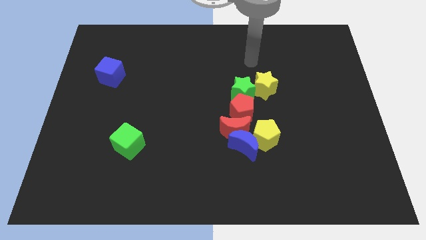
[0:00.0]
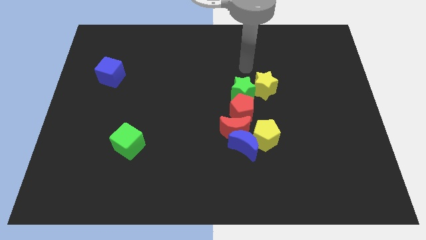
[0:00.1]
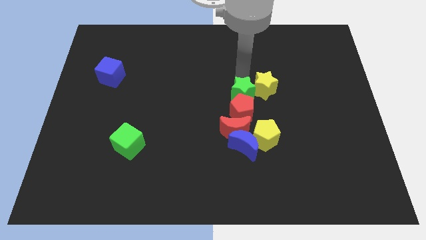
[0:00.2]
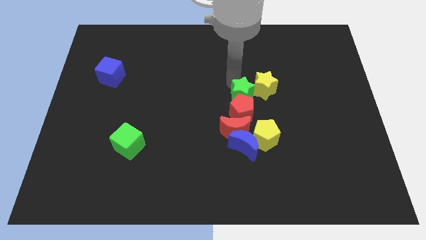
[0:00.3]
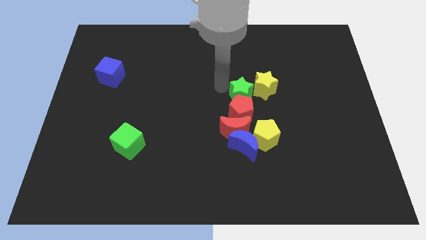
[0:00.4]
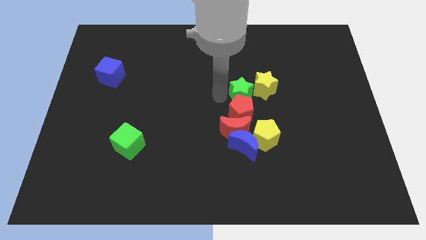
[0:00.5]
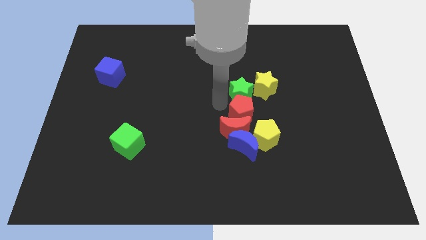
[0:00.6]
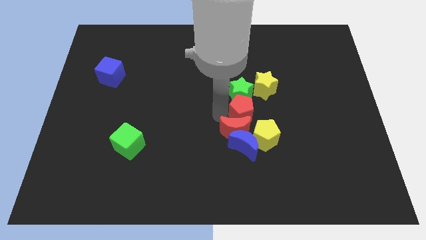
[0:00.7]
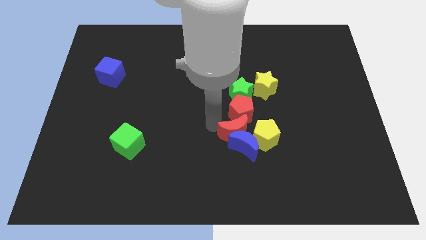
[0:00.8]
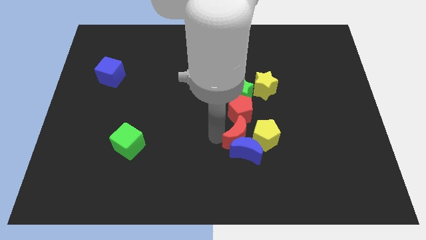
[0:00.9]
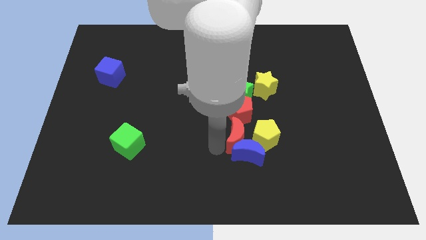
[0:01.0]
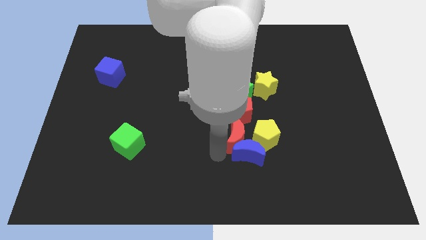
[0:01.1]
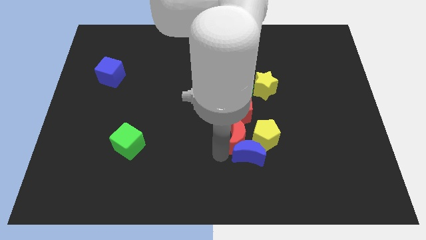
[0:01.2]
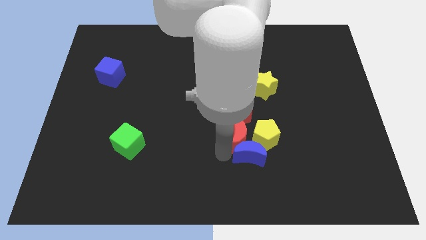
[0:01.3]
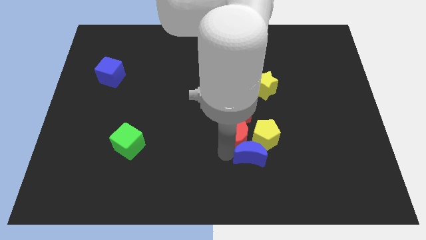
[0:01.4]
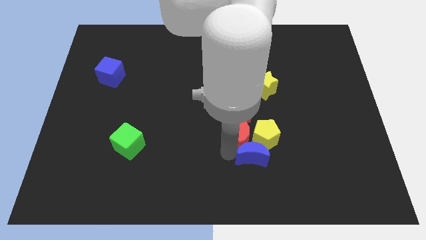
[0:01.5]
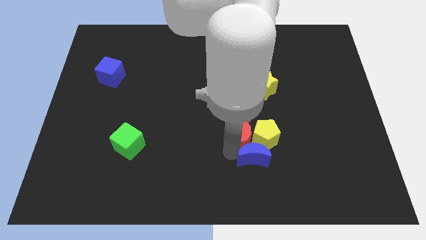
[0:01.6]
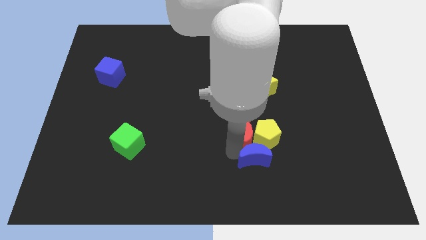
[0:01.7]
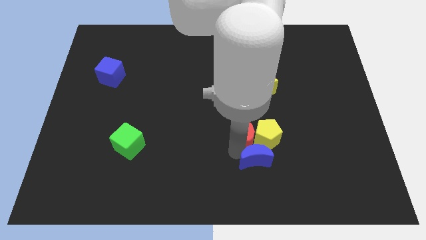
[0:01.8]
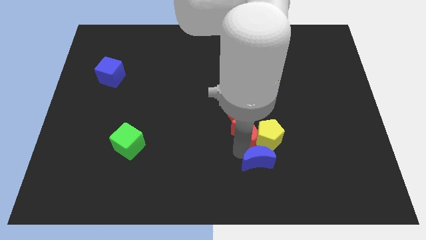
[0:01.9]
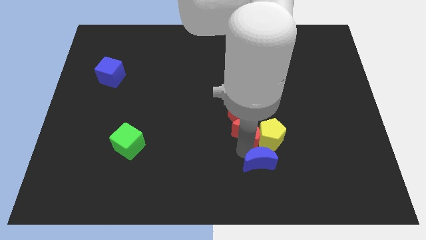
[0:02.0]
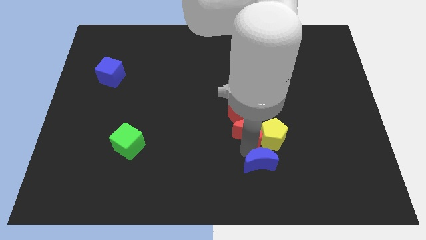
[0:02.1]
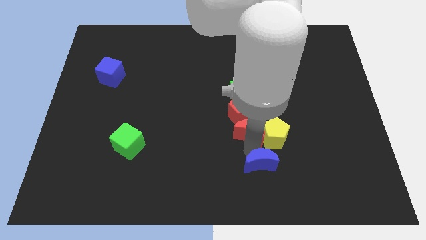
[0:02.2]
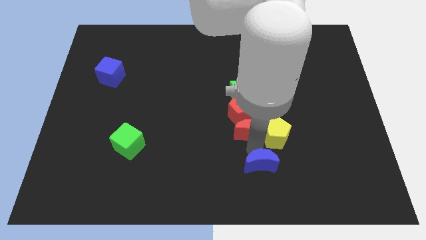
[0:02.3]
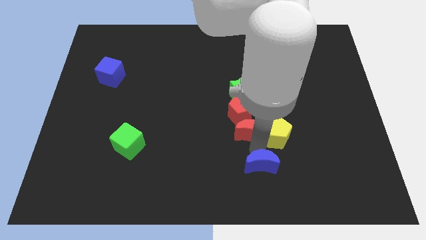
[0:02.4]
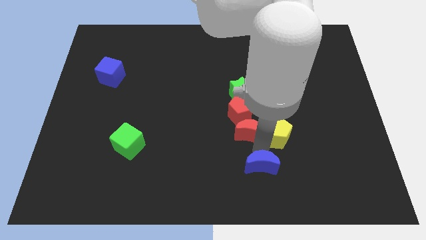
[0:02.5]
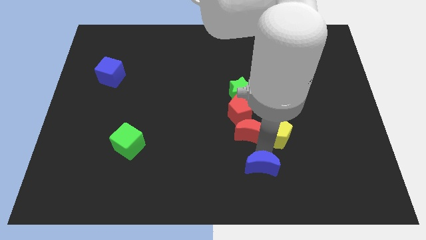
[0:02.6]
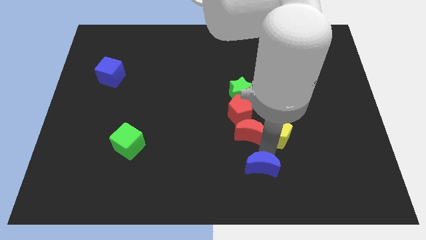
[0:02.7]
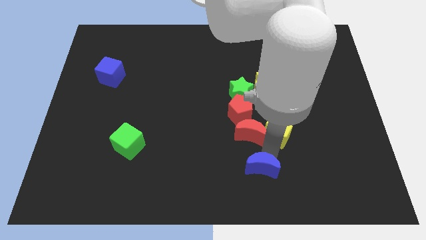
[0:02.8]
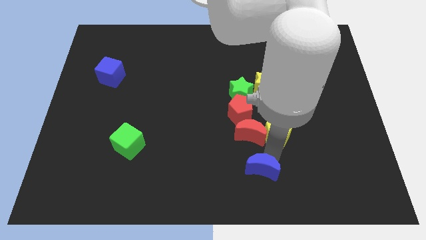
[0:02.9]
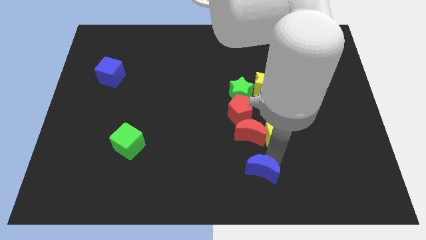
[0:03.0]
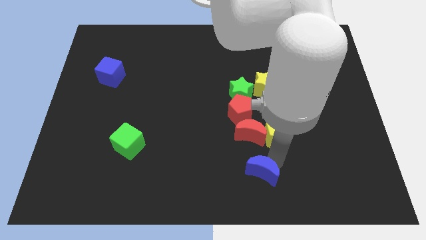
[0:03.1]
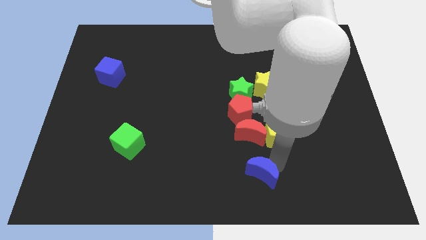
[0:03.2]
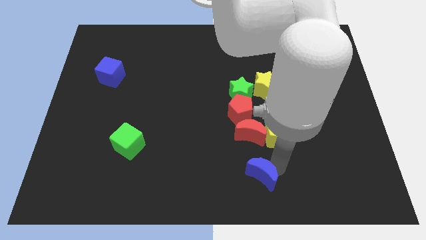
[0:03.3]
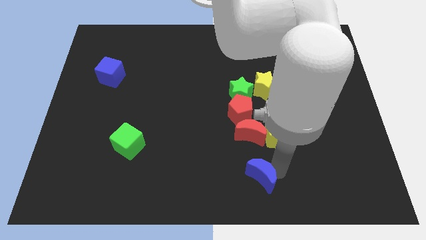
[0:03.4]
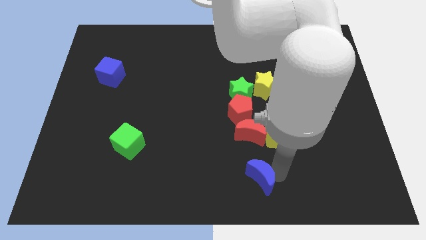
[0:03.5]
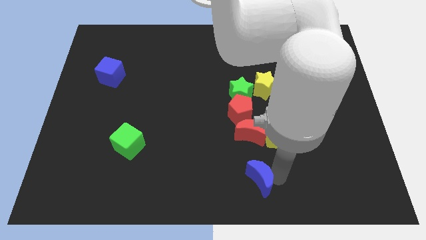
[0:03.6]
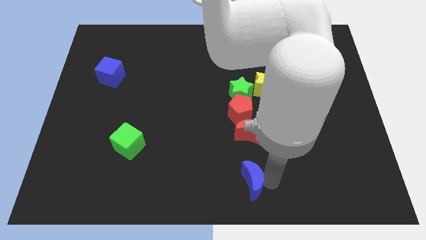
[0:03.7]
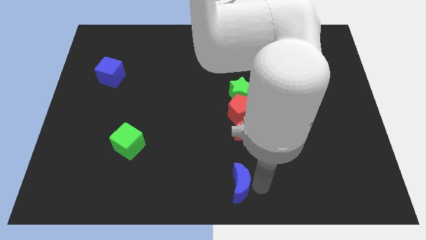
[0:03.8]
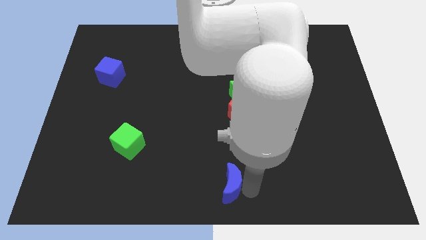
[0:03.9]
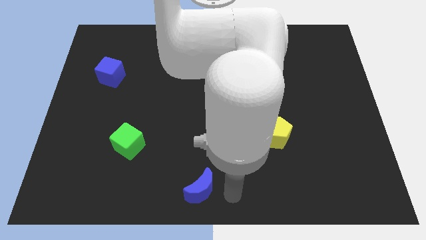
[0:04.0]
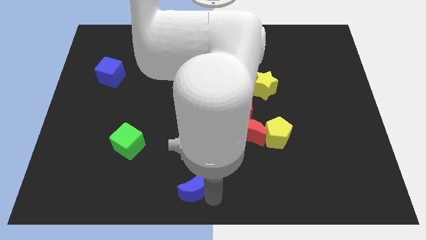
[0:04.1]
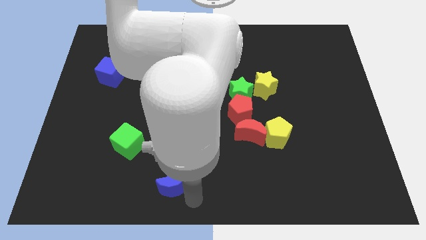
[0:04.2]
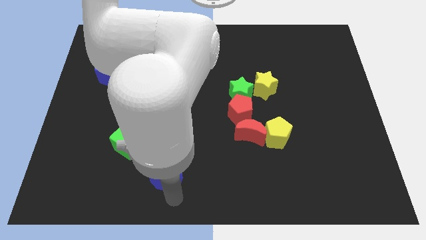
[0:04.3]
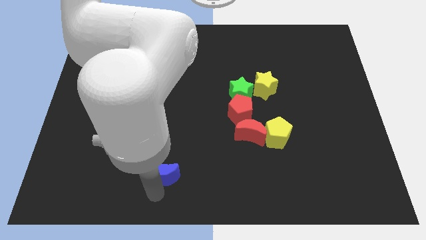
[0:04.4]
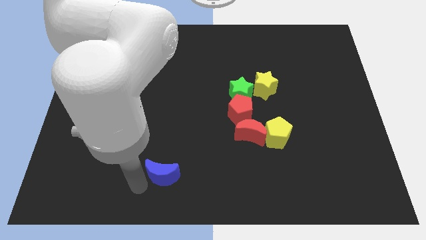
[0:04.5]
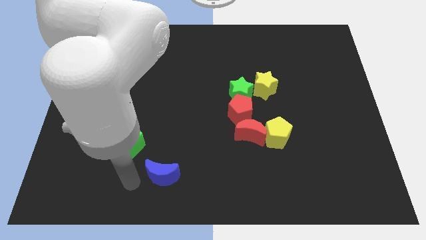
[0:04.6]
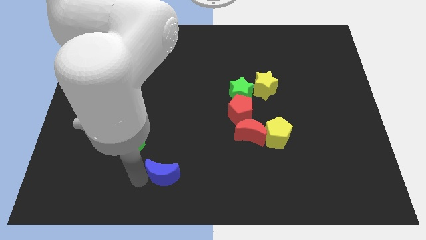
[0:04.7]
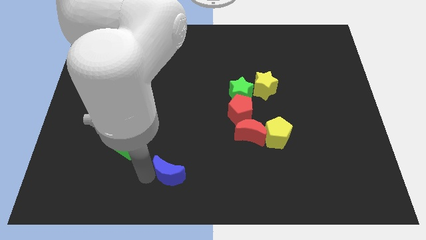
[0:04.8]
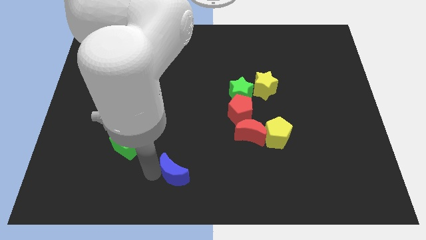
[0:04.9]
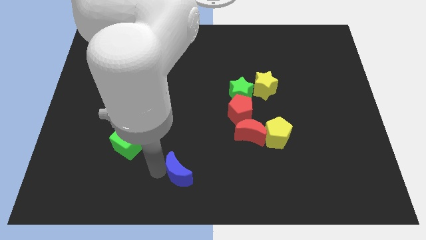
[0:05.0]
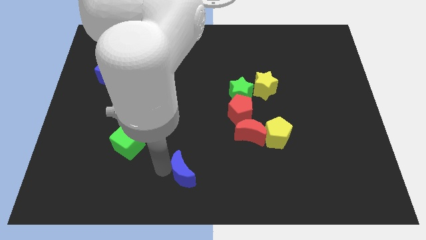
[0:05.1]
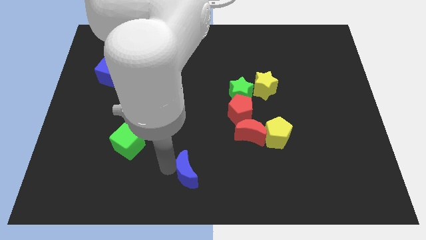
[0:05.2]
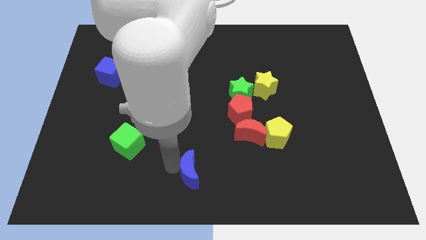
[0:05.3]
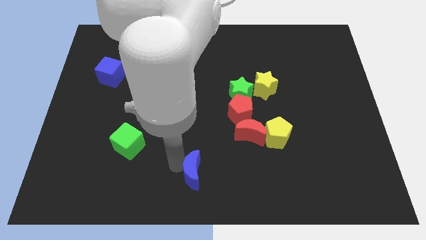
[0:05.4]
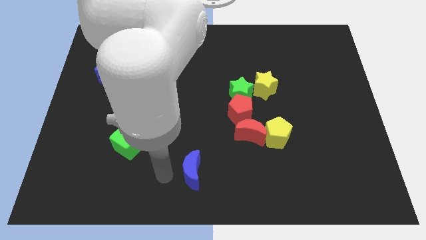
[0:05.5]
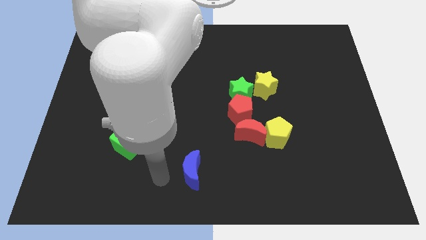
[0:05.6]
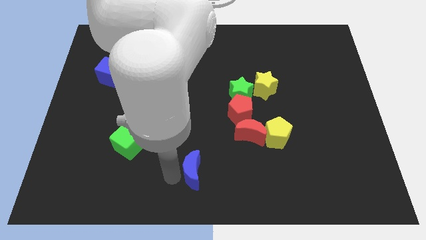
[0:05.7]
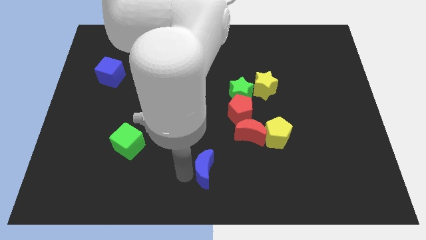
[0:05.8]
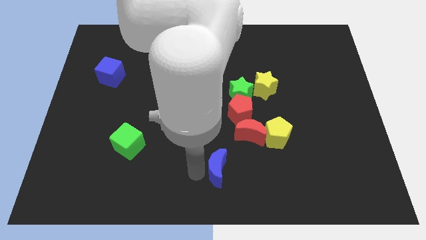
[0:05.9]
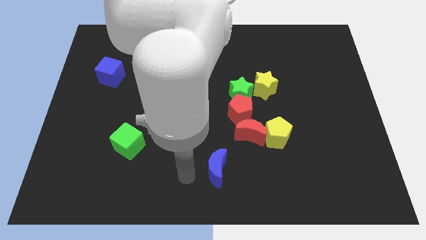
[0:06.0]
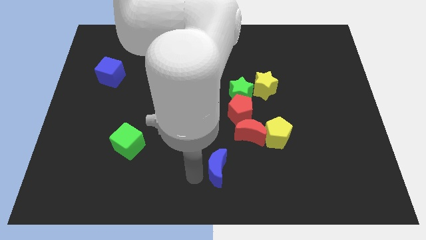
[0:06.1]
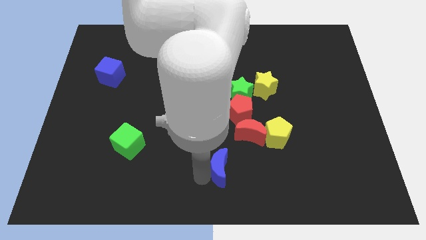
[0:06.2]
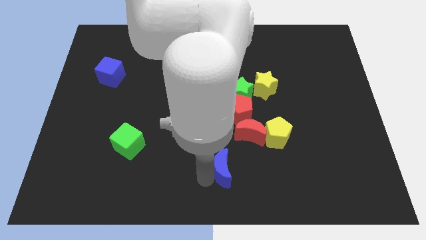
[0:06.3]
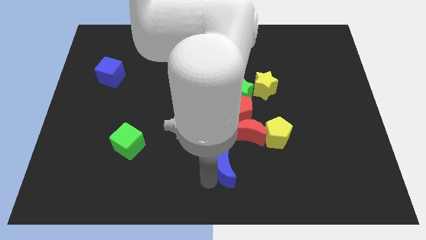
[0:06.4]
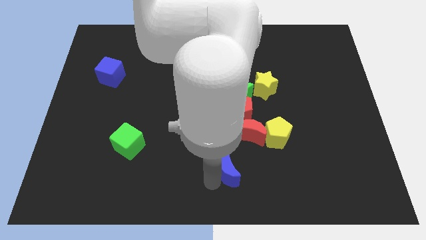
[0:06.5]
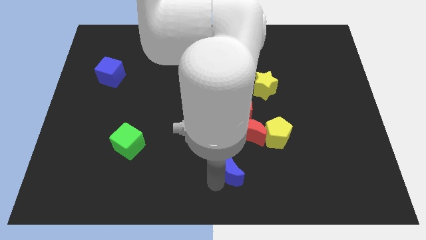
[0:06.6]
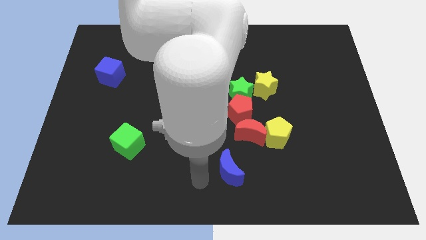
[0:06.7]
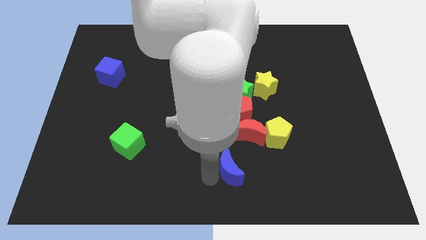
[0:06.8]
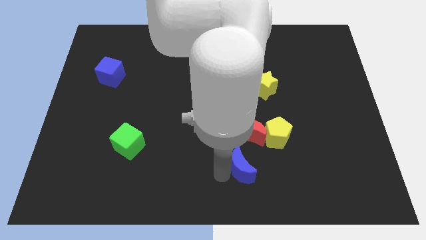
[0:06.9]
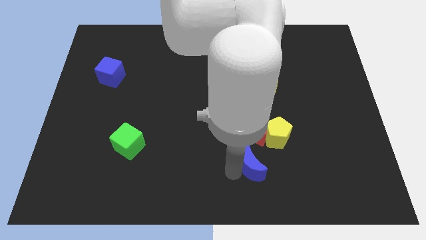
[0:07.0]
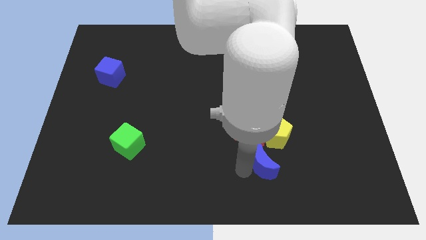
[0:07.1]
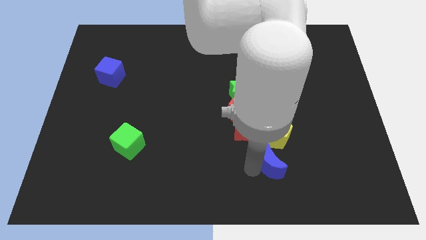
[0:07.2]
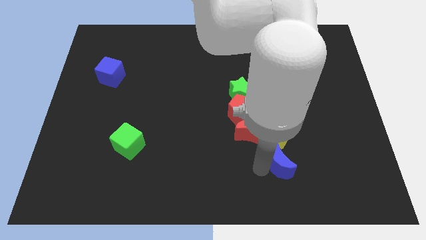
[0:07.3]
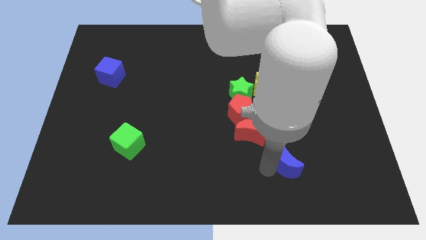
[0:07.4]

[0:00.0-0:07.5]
move the blue moon a bit to the right

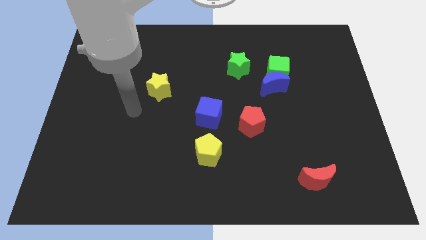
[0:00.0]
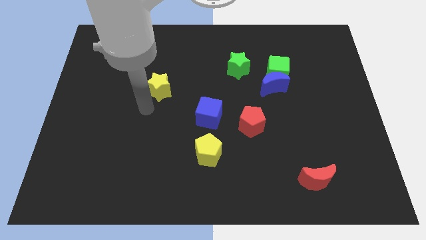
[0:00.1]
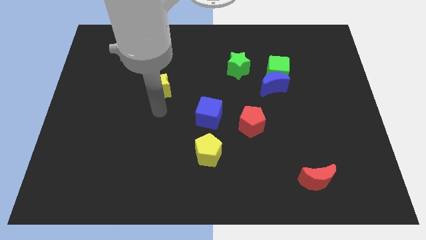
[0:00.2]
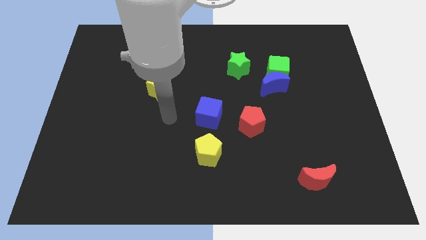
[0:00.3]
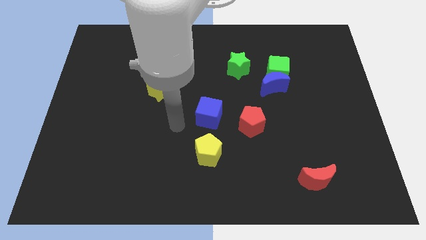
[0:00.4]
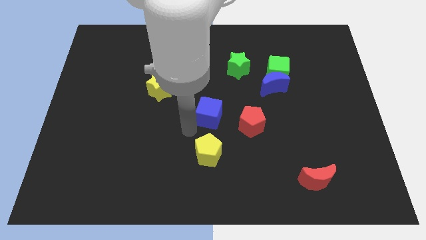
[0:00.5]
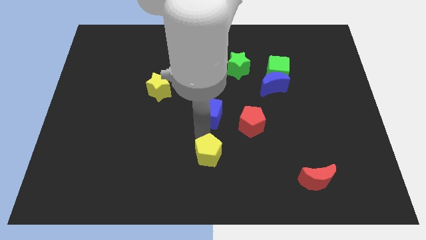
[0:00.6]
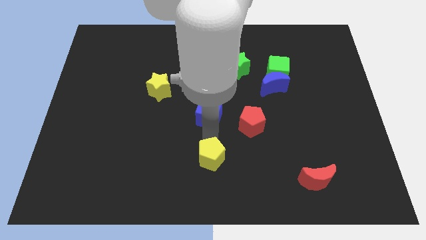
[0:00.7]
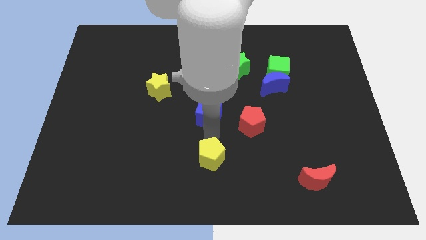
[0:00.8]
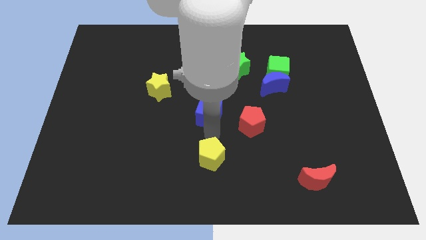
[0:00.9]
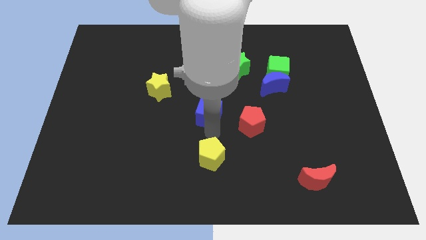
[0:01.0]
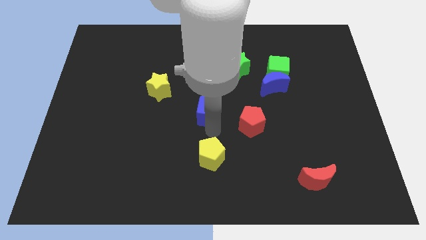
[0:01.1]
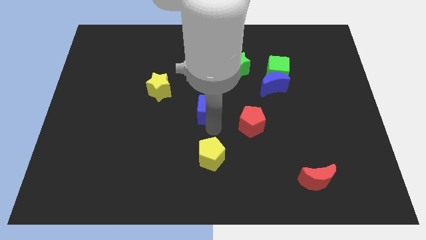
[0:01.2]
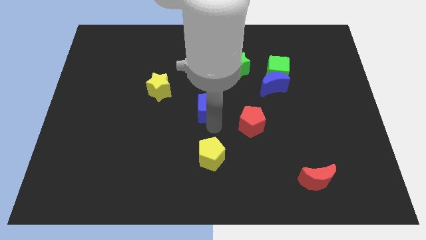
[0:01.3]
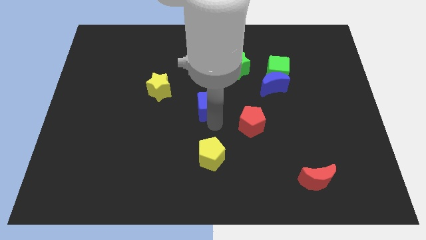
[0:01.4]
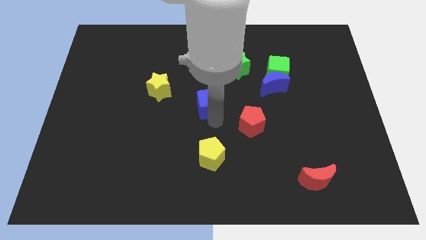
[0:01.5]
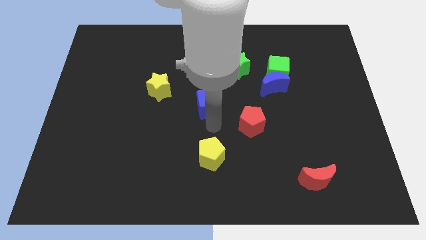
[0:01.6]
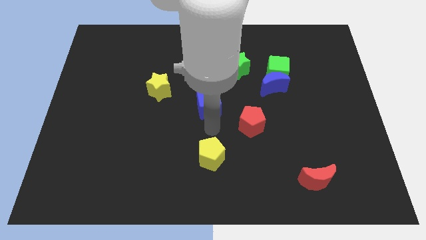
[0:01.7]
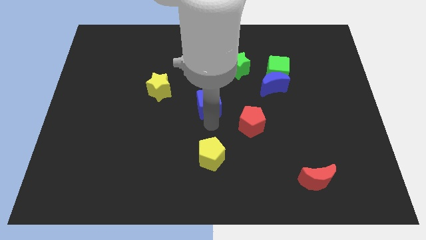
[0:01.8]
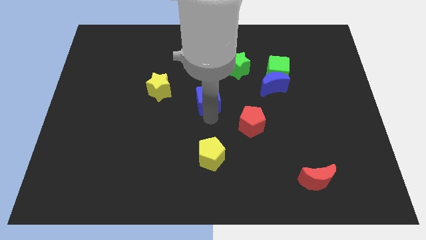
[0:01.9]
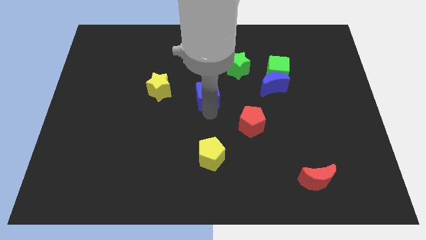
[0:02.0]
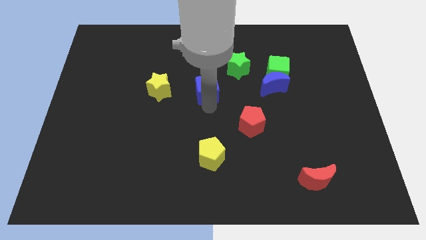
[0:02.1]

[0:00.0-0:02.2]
slightly slide the blue cube upwards
